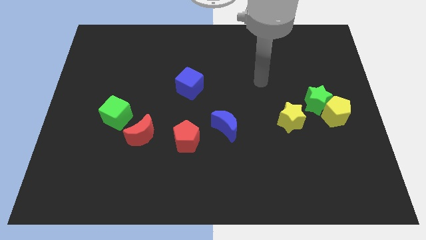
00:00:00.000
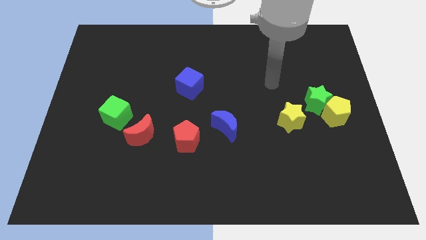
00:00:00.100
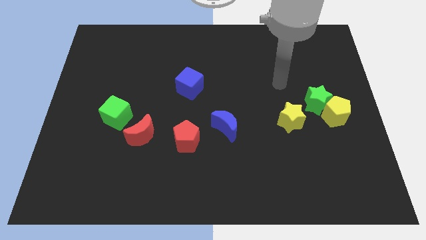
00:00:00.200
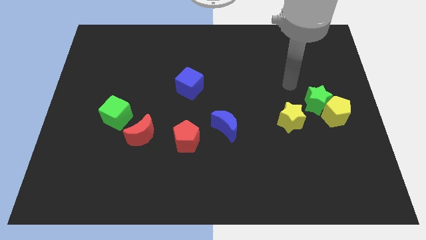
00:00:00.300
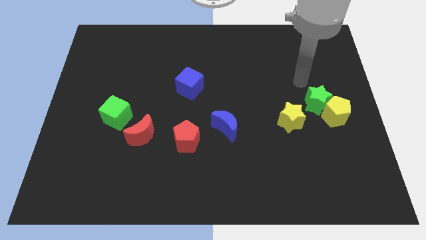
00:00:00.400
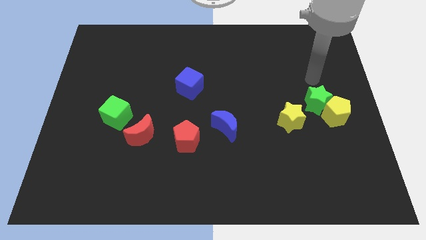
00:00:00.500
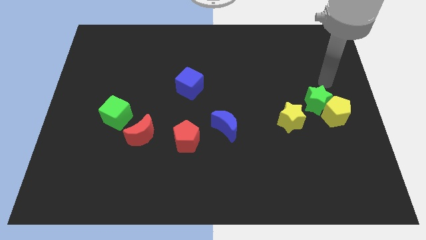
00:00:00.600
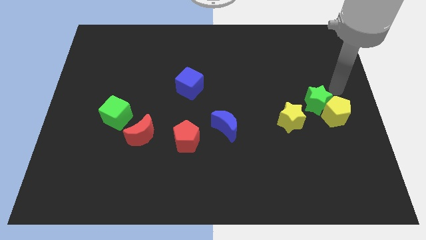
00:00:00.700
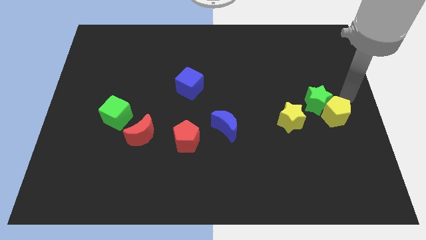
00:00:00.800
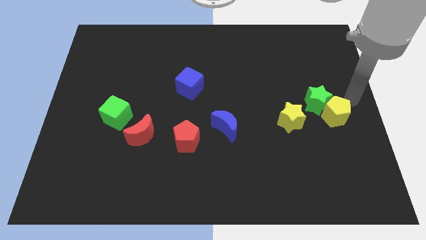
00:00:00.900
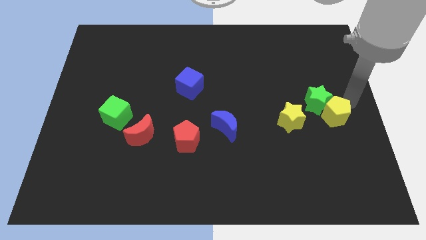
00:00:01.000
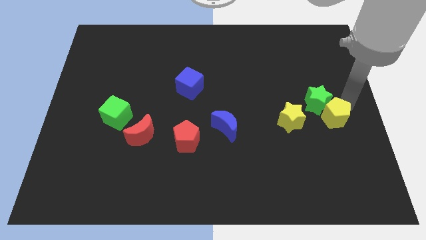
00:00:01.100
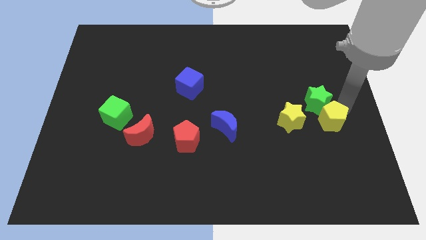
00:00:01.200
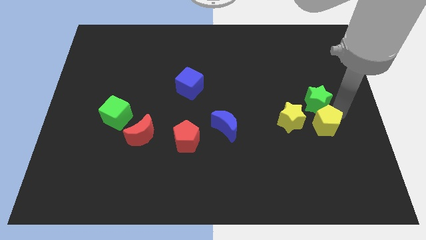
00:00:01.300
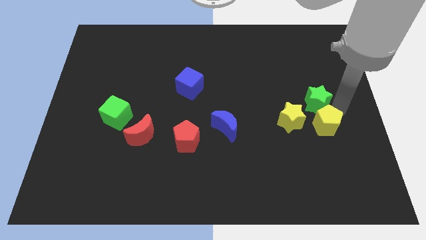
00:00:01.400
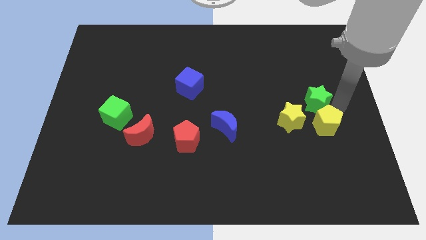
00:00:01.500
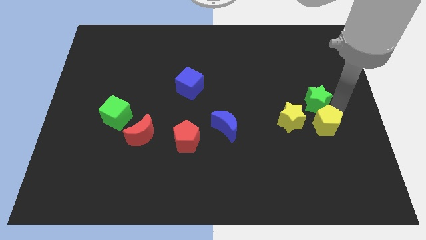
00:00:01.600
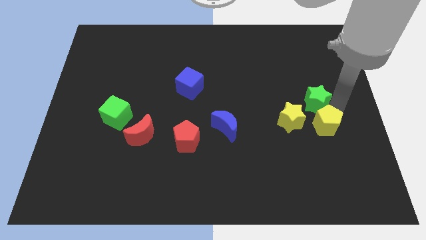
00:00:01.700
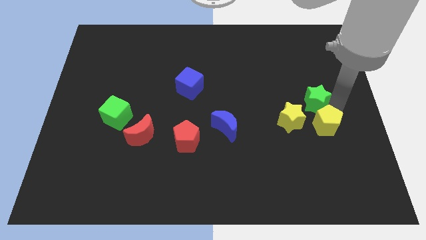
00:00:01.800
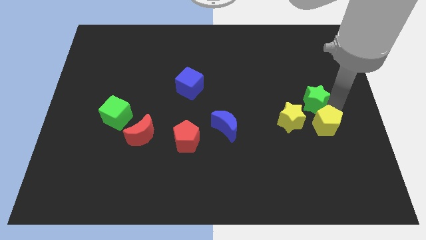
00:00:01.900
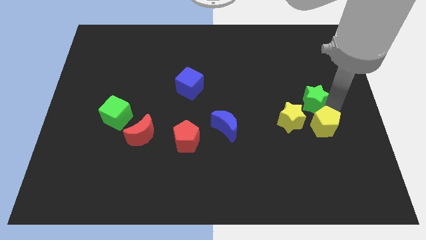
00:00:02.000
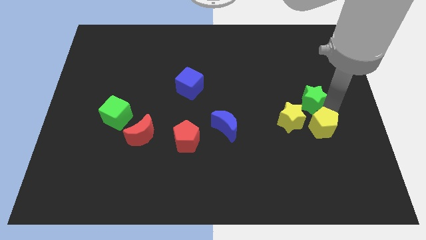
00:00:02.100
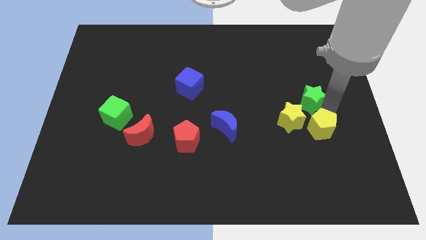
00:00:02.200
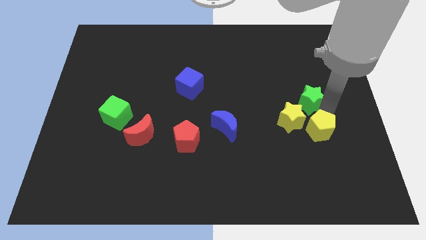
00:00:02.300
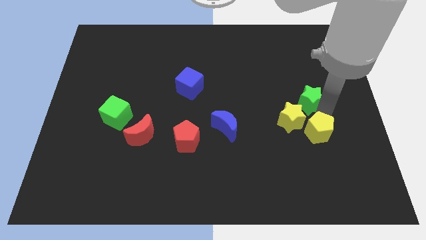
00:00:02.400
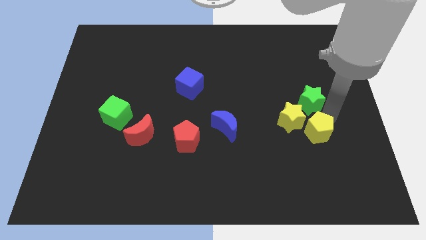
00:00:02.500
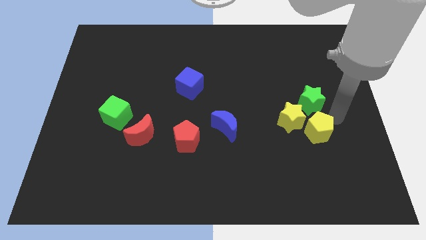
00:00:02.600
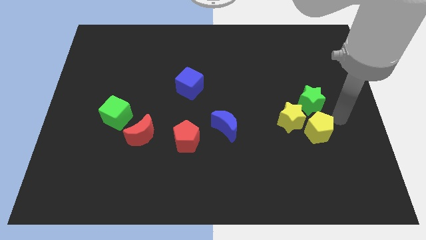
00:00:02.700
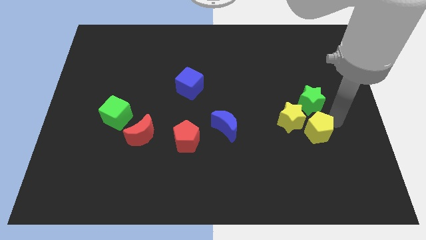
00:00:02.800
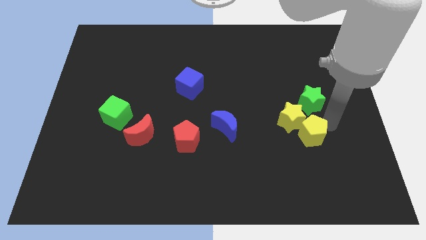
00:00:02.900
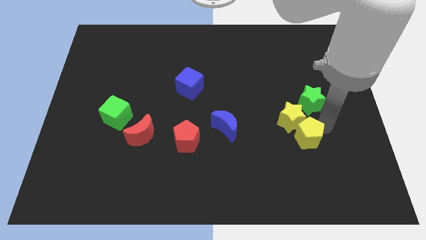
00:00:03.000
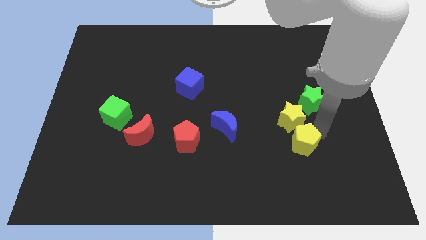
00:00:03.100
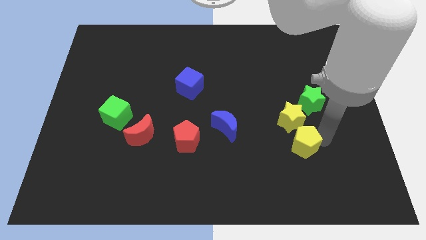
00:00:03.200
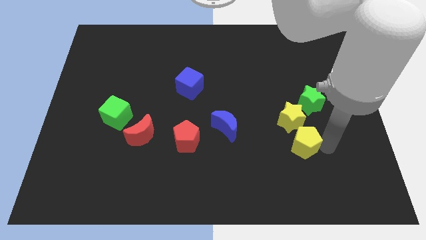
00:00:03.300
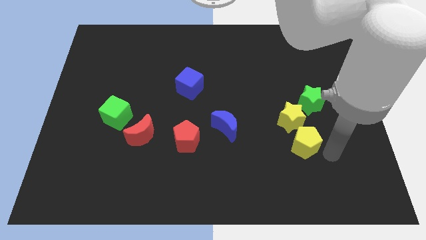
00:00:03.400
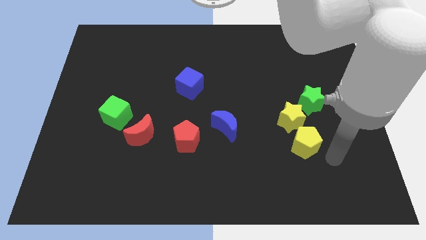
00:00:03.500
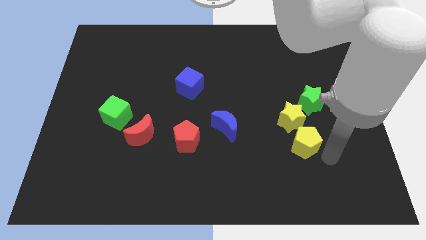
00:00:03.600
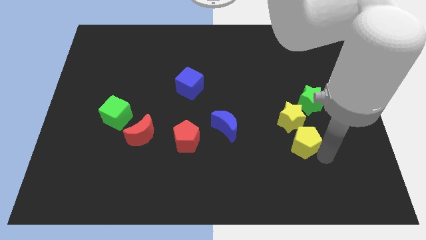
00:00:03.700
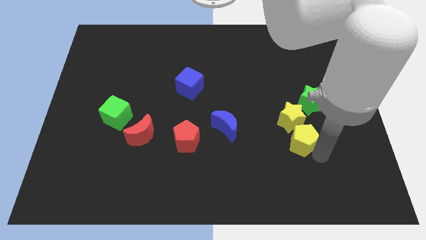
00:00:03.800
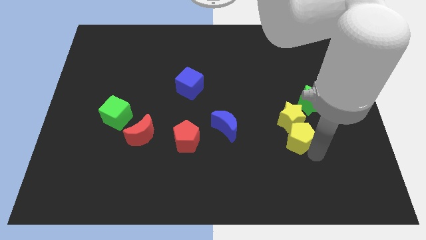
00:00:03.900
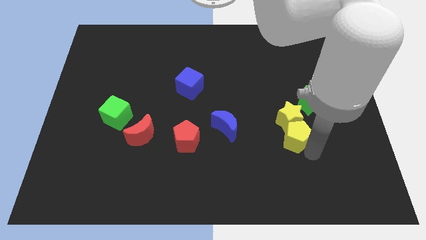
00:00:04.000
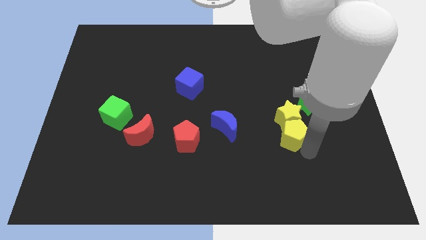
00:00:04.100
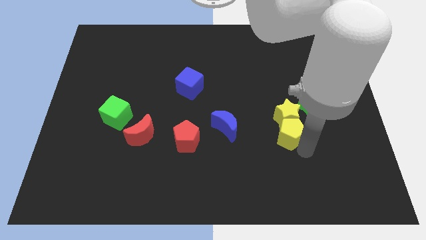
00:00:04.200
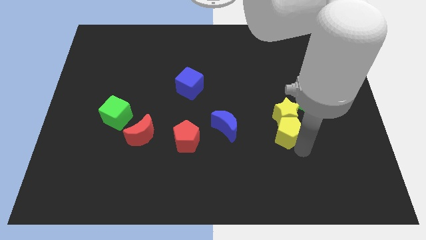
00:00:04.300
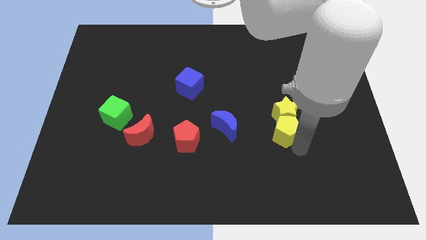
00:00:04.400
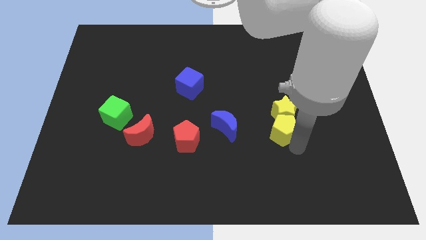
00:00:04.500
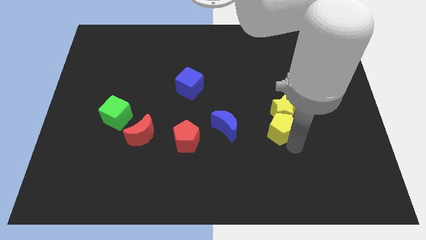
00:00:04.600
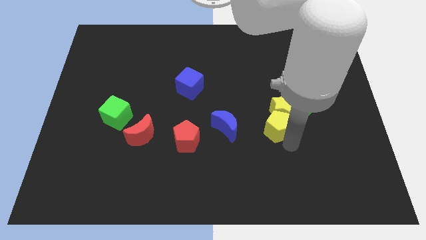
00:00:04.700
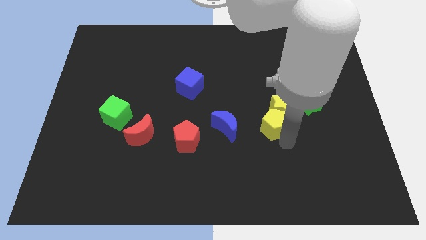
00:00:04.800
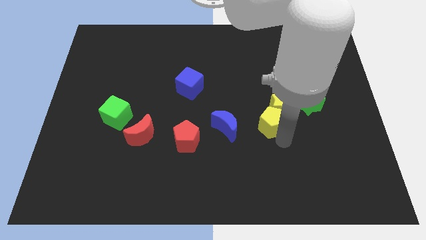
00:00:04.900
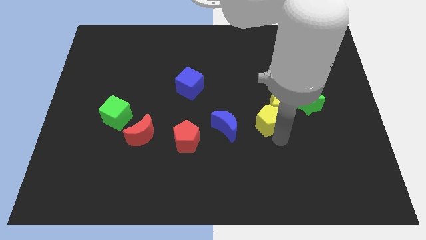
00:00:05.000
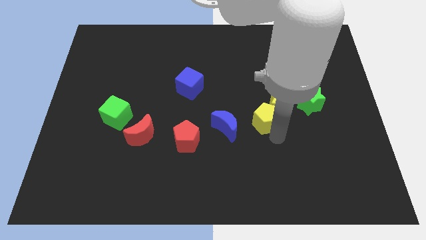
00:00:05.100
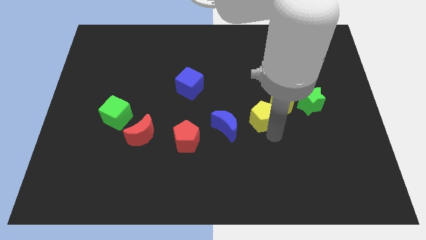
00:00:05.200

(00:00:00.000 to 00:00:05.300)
put the yellow pentagon to the top right of the blue moon

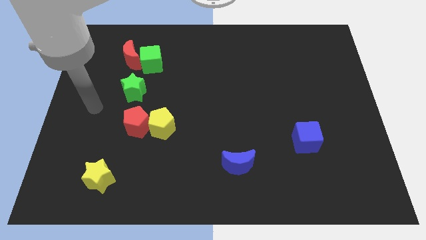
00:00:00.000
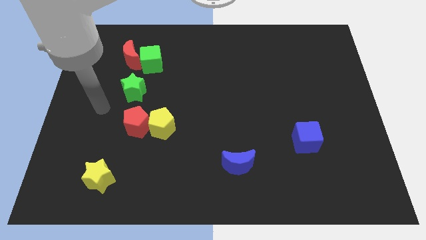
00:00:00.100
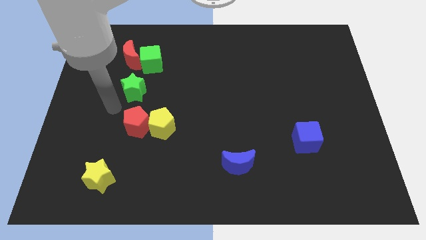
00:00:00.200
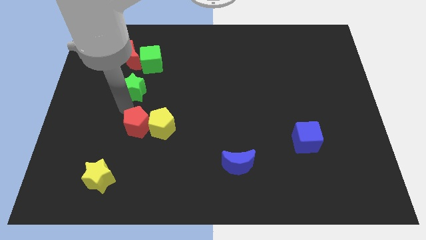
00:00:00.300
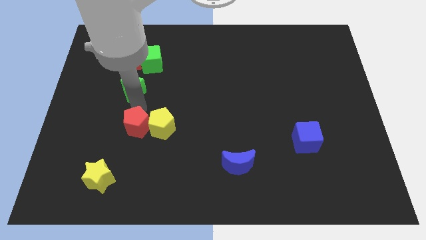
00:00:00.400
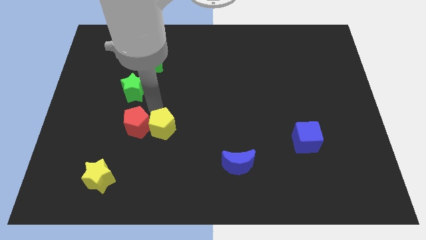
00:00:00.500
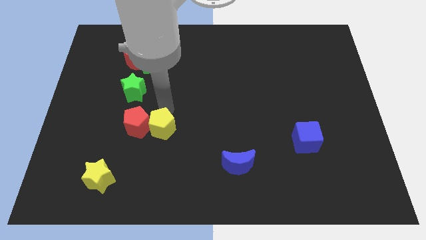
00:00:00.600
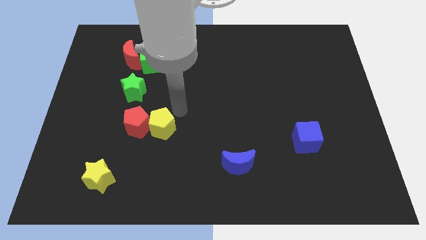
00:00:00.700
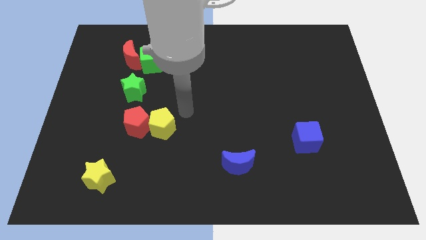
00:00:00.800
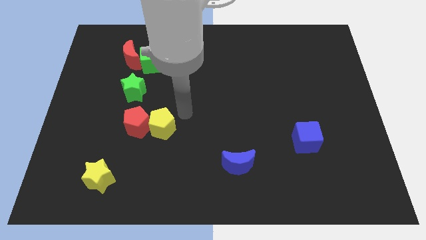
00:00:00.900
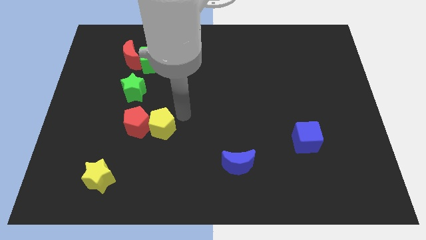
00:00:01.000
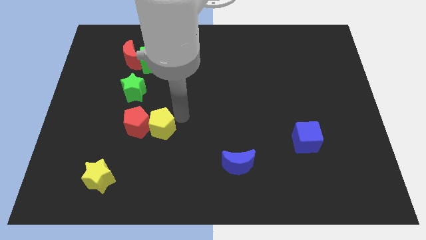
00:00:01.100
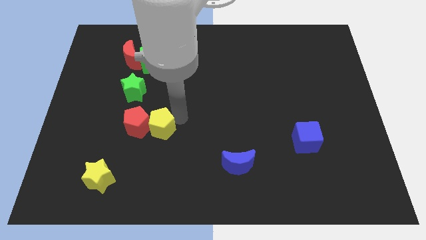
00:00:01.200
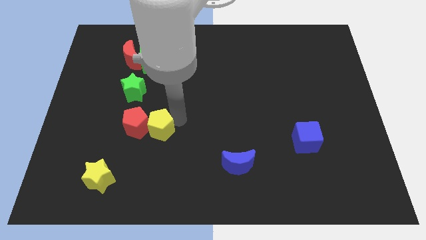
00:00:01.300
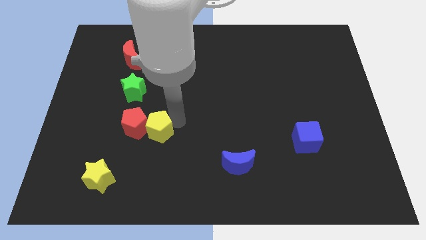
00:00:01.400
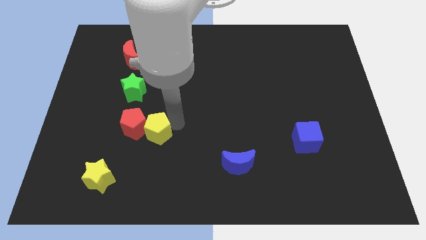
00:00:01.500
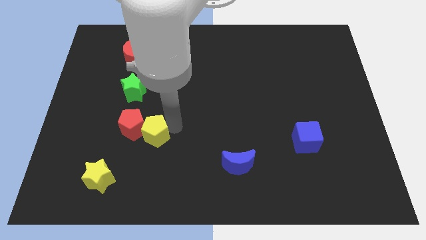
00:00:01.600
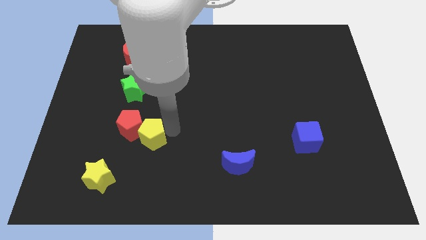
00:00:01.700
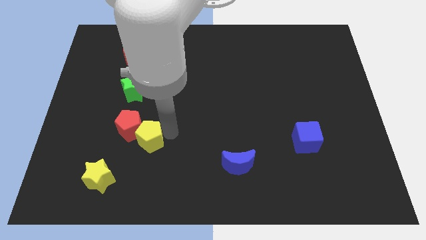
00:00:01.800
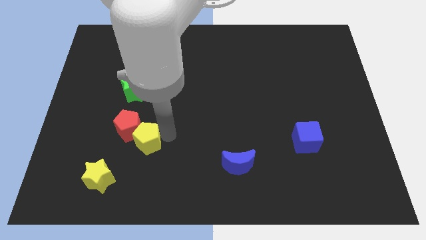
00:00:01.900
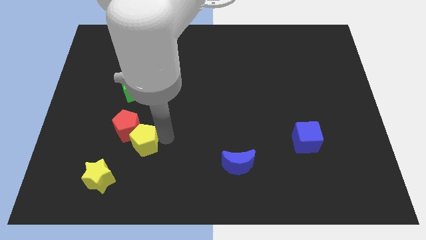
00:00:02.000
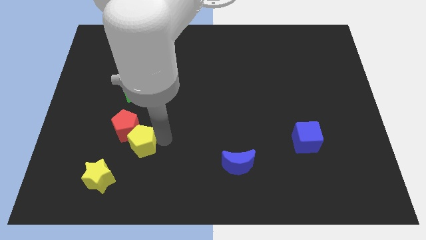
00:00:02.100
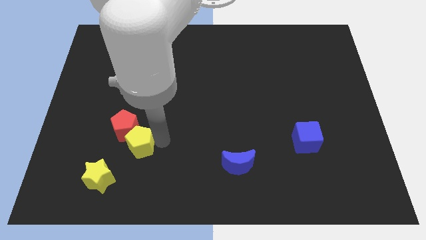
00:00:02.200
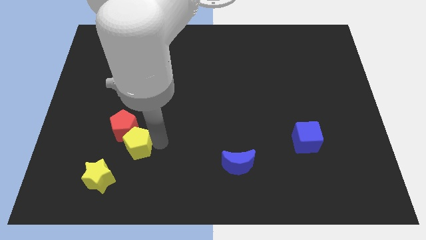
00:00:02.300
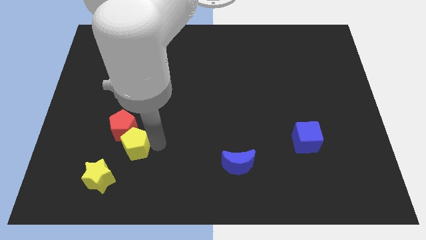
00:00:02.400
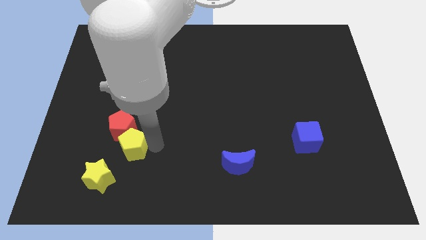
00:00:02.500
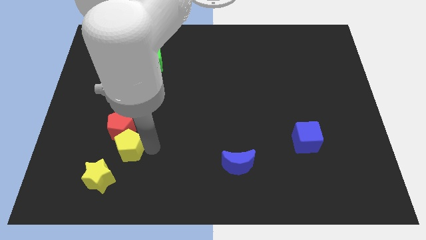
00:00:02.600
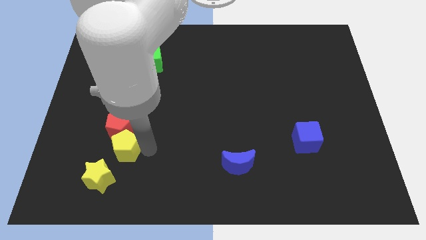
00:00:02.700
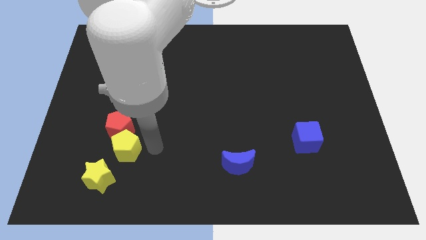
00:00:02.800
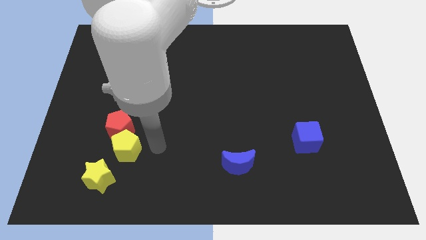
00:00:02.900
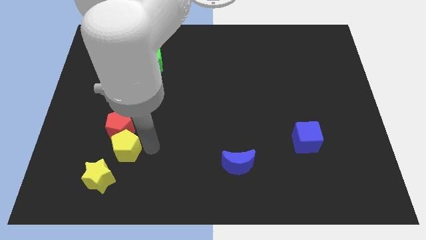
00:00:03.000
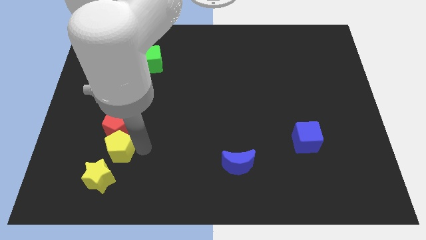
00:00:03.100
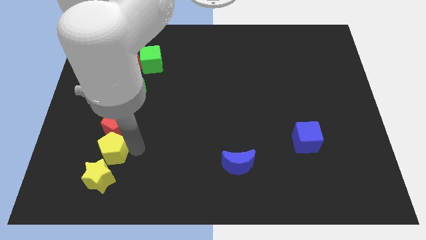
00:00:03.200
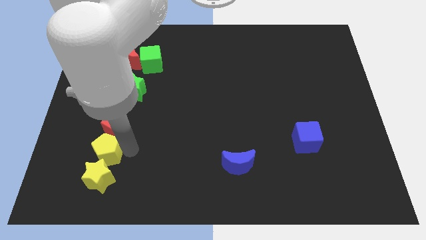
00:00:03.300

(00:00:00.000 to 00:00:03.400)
put the yellow pentagon diagonally up and to the left of the yellow star
